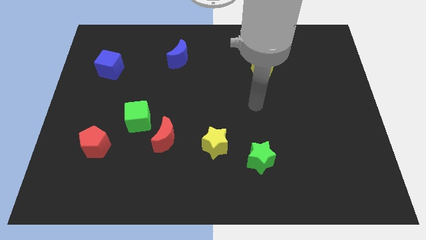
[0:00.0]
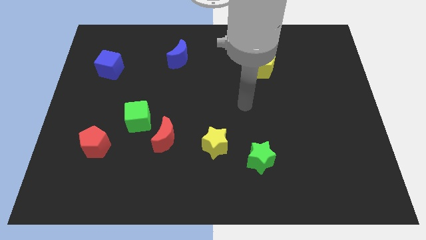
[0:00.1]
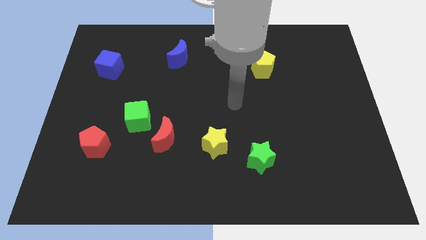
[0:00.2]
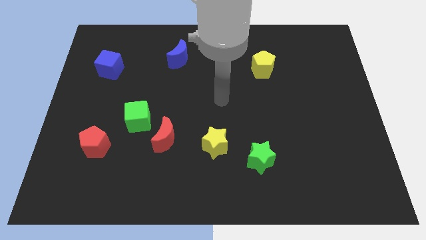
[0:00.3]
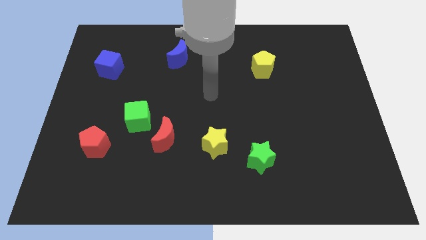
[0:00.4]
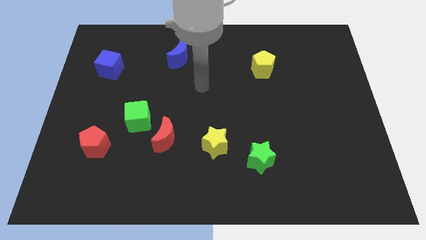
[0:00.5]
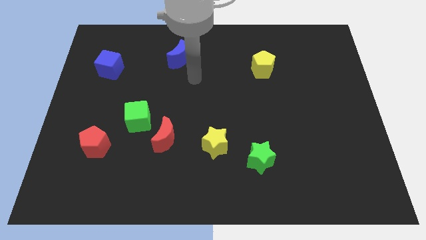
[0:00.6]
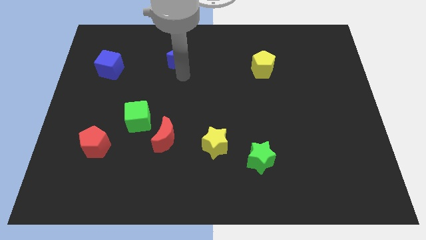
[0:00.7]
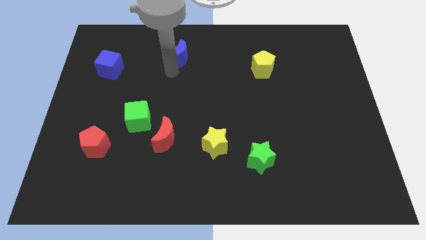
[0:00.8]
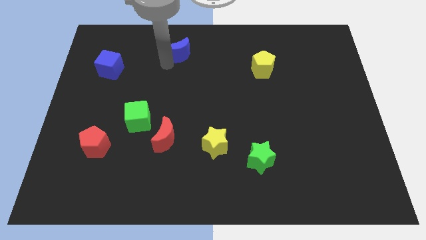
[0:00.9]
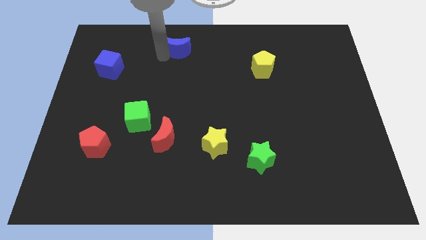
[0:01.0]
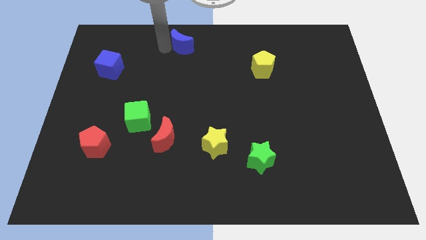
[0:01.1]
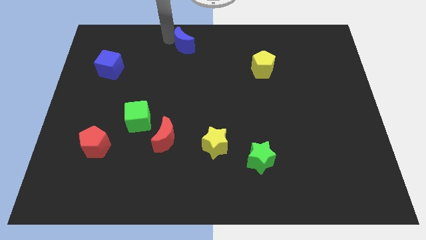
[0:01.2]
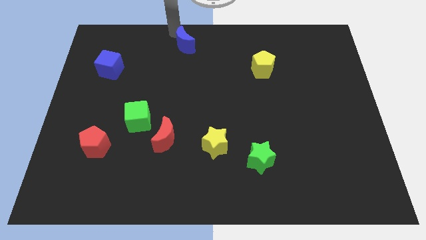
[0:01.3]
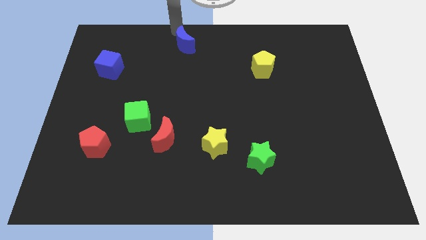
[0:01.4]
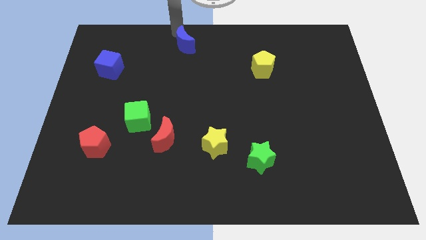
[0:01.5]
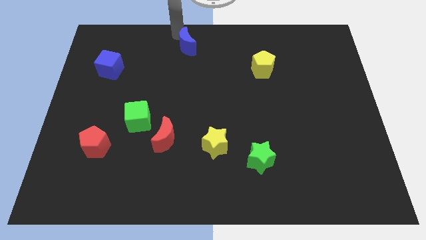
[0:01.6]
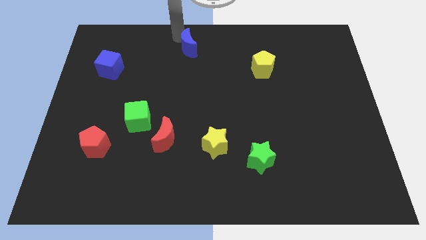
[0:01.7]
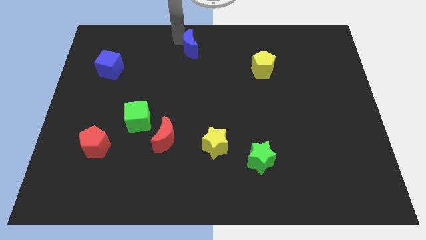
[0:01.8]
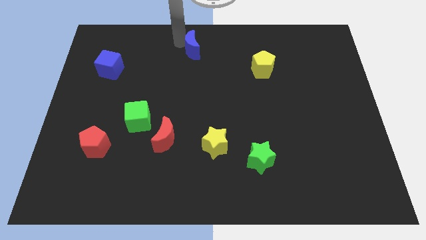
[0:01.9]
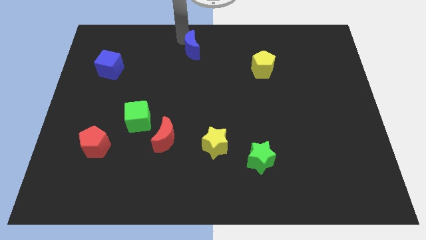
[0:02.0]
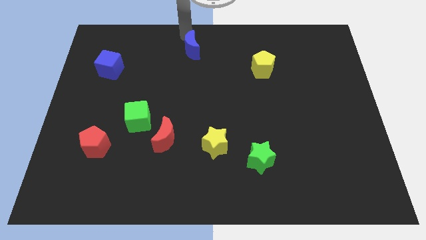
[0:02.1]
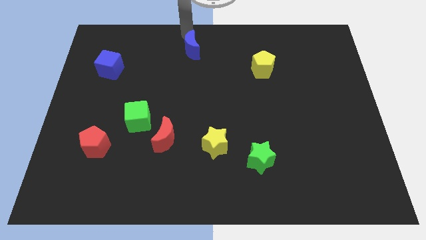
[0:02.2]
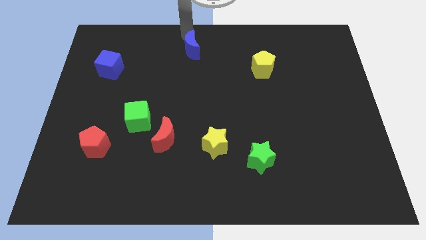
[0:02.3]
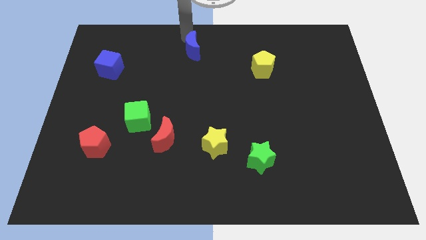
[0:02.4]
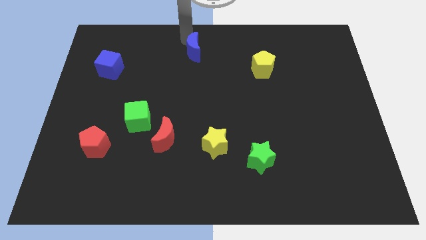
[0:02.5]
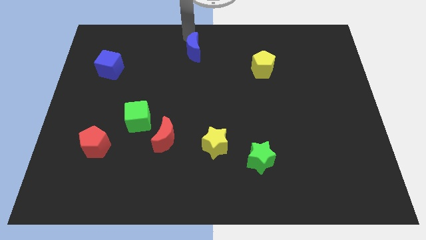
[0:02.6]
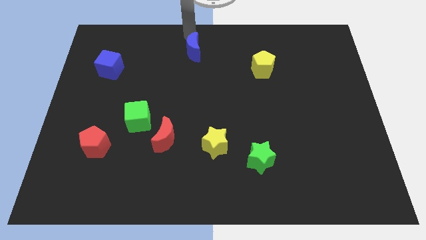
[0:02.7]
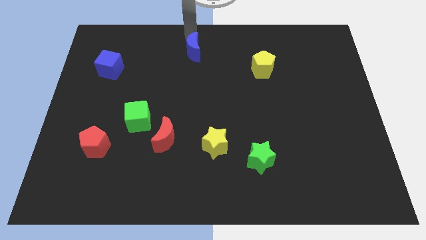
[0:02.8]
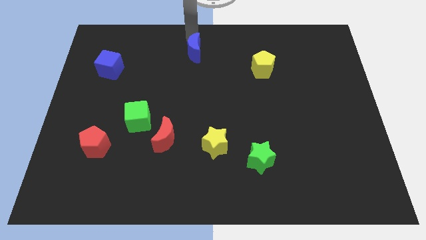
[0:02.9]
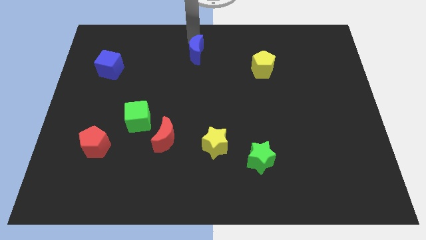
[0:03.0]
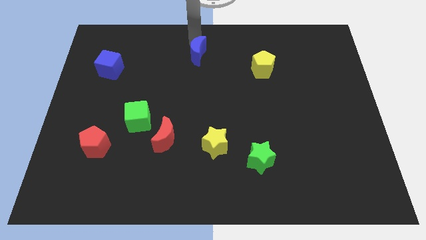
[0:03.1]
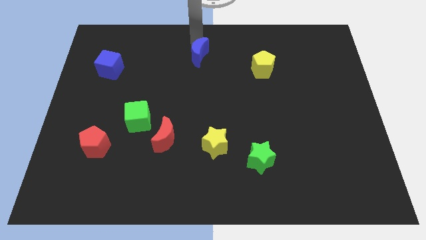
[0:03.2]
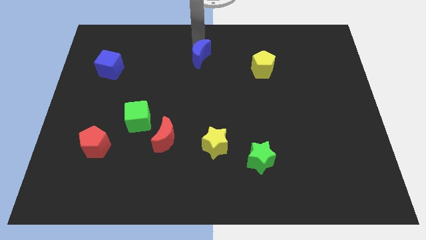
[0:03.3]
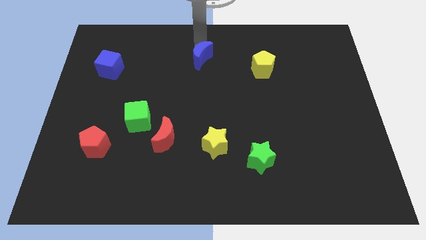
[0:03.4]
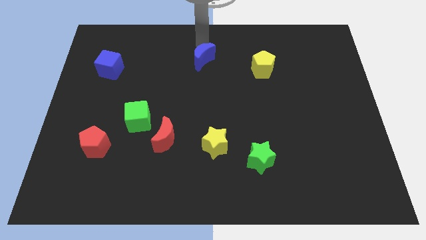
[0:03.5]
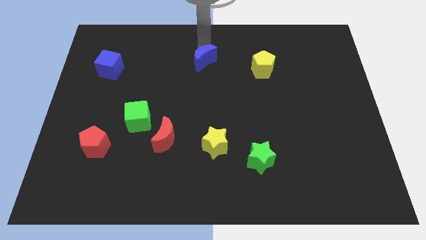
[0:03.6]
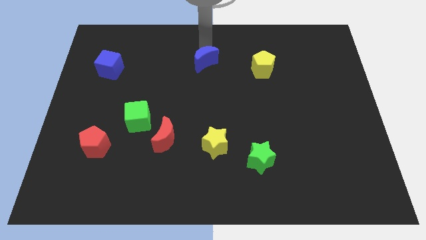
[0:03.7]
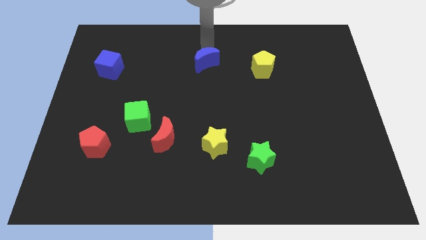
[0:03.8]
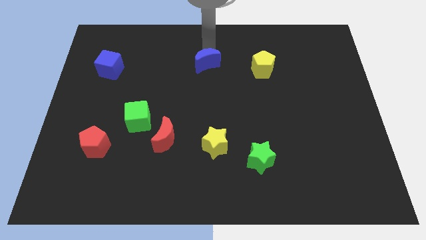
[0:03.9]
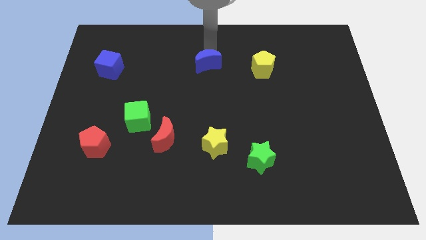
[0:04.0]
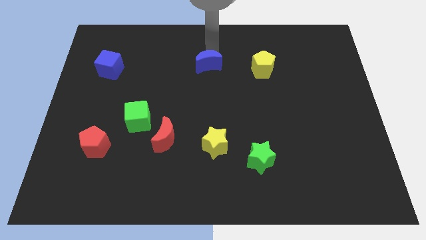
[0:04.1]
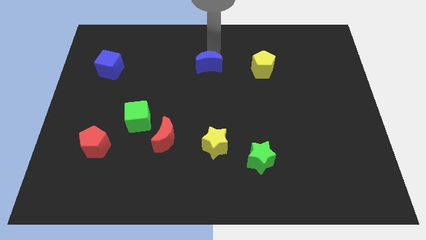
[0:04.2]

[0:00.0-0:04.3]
slightly push the blue moon downwards and then right

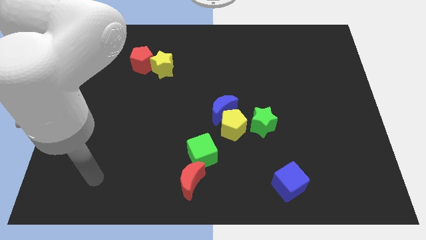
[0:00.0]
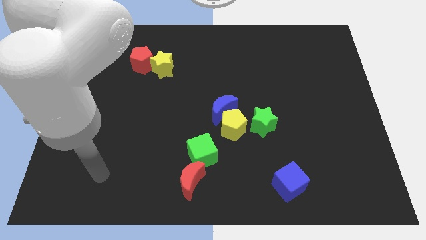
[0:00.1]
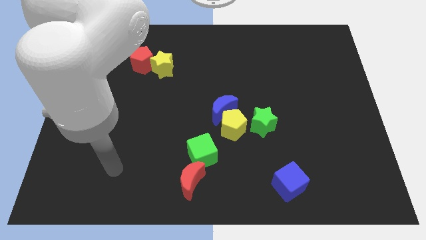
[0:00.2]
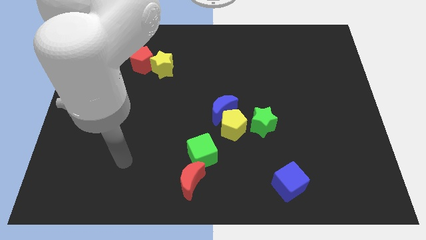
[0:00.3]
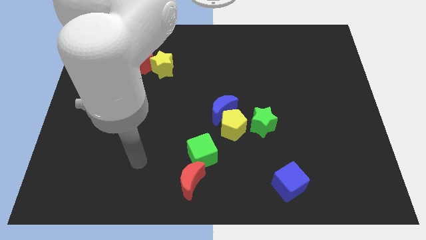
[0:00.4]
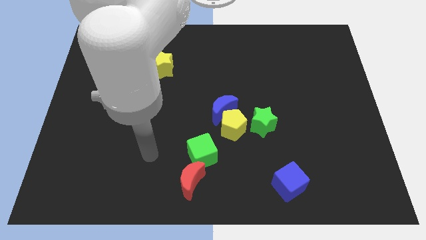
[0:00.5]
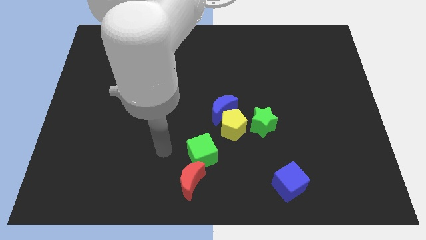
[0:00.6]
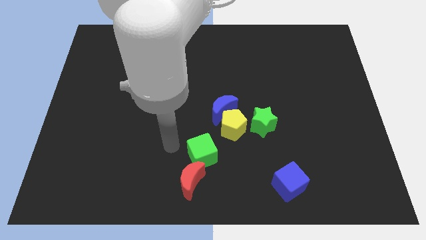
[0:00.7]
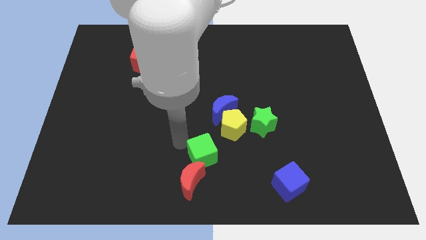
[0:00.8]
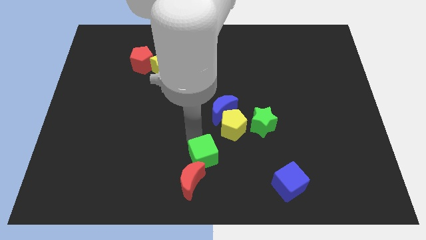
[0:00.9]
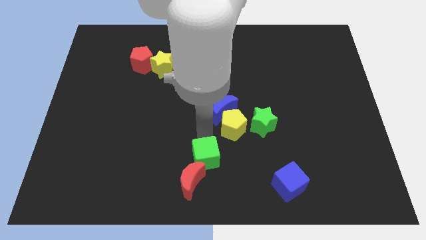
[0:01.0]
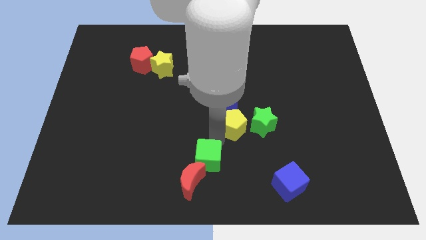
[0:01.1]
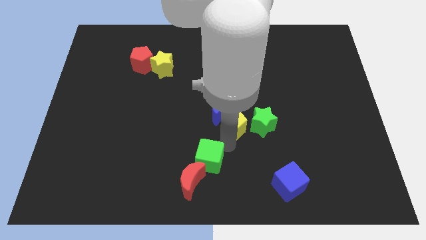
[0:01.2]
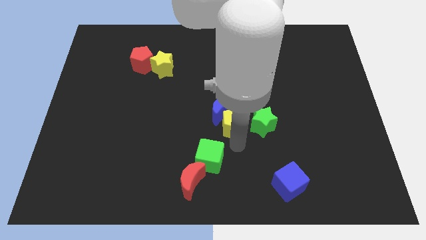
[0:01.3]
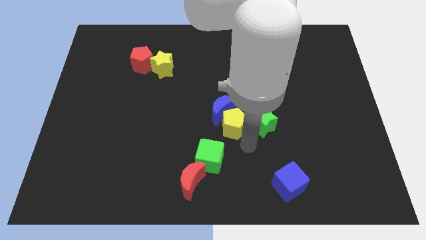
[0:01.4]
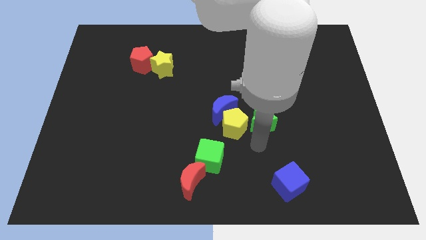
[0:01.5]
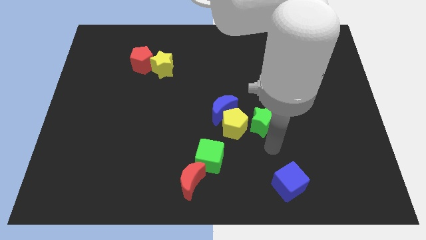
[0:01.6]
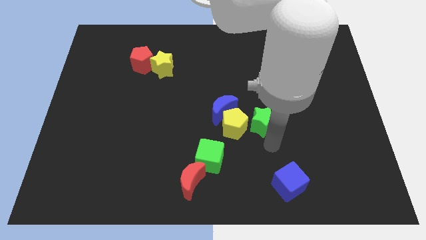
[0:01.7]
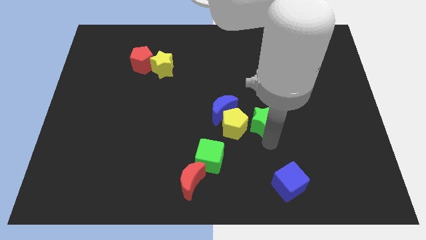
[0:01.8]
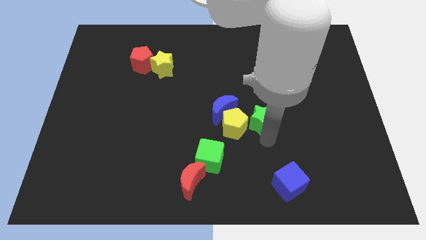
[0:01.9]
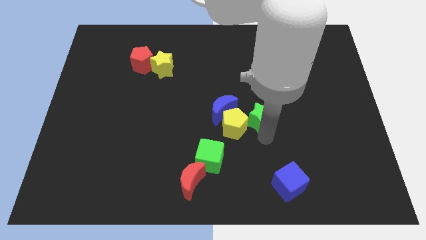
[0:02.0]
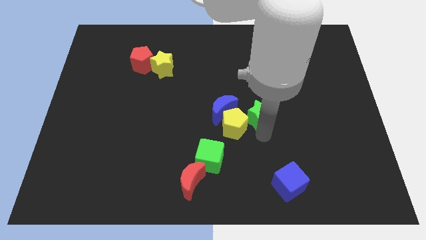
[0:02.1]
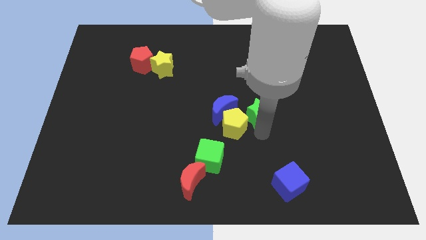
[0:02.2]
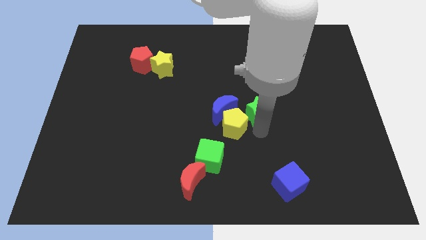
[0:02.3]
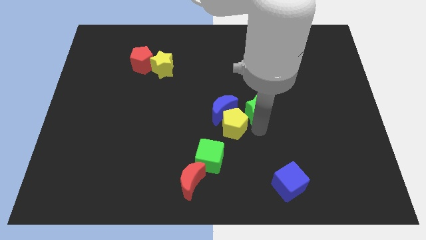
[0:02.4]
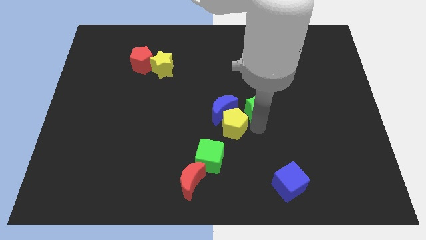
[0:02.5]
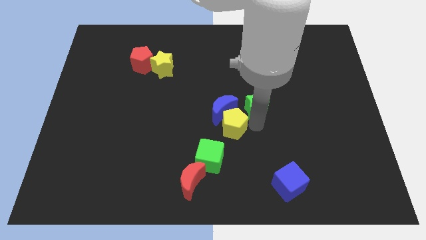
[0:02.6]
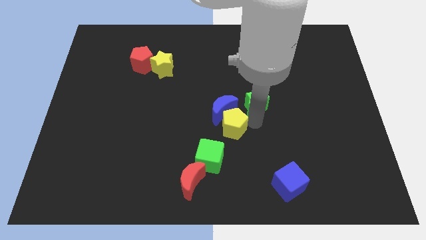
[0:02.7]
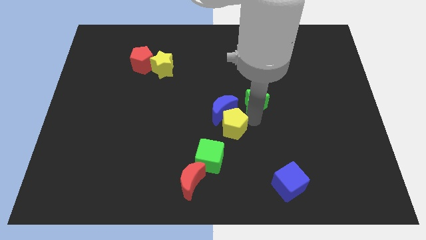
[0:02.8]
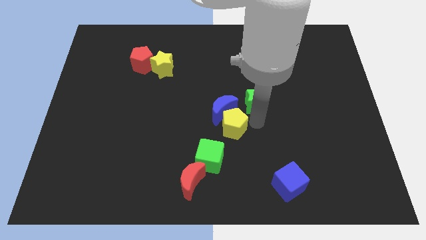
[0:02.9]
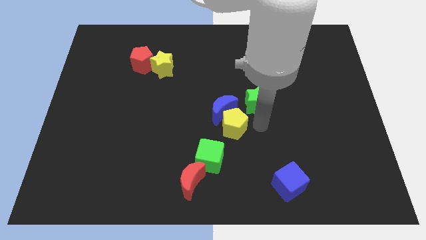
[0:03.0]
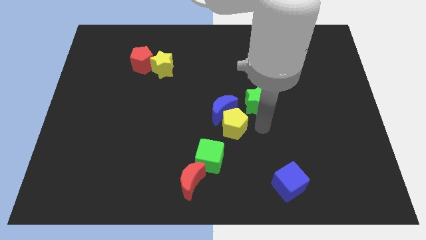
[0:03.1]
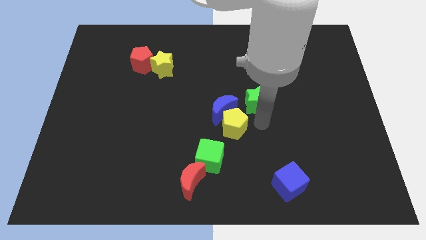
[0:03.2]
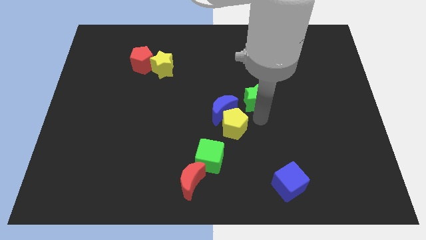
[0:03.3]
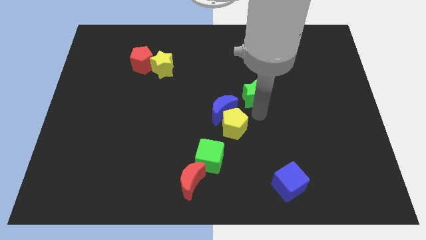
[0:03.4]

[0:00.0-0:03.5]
push the green star up somewhat
